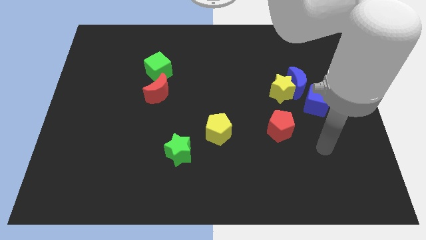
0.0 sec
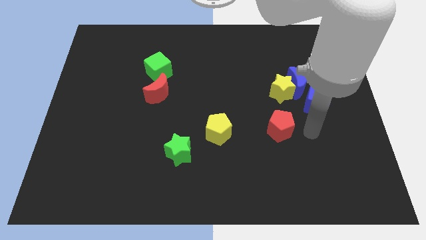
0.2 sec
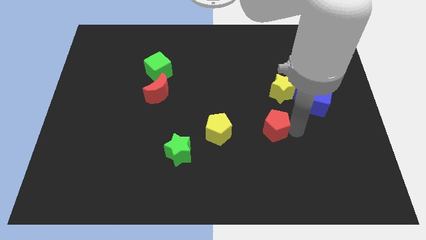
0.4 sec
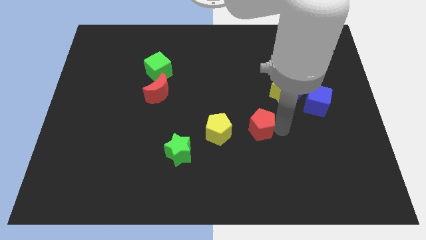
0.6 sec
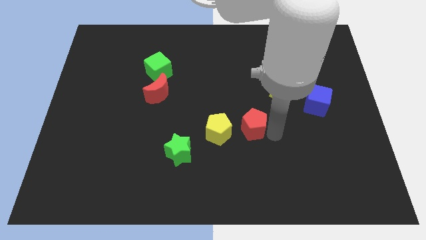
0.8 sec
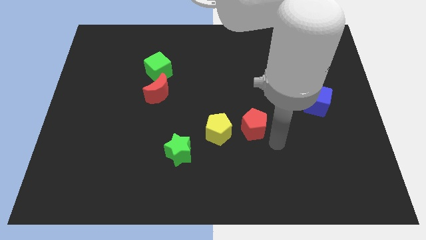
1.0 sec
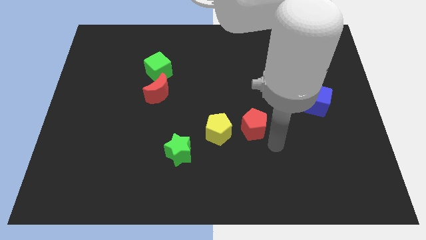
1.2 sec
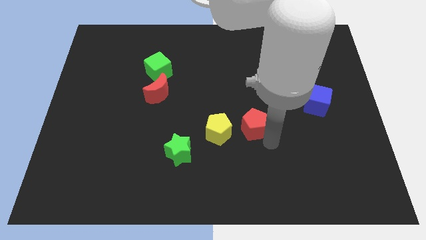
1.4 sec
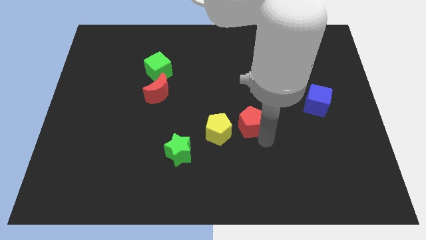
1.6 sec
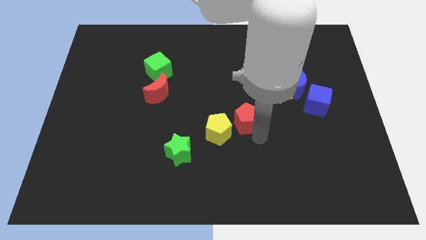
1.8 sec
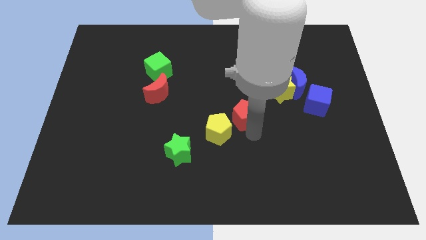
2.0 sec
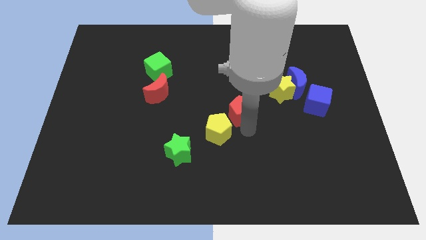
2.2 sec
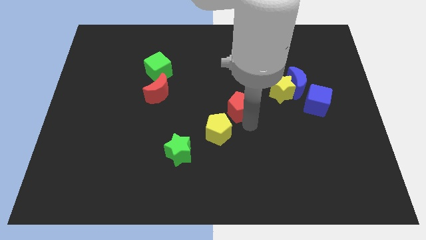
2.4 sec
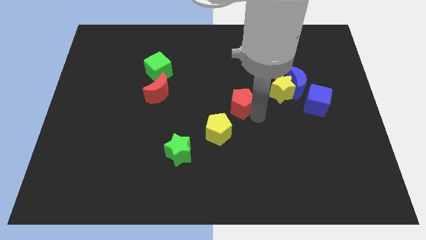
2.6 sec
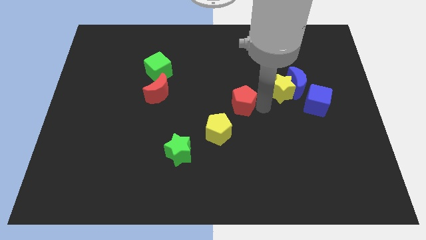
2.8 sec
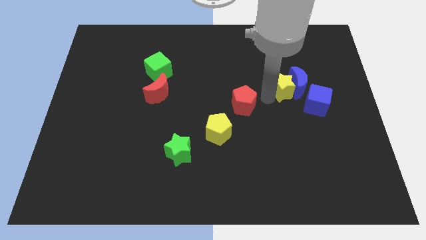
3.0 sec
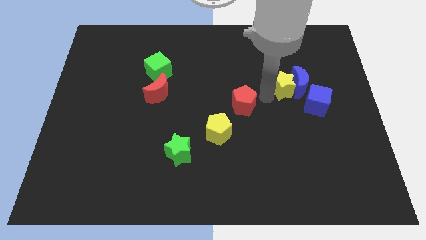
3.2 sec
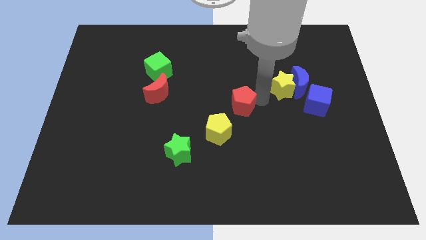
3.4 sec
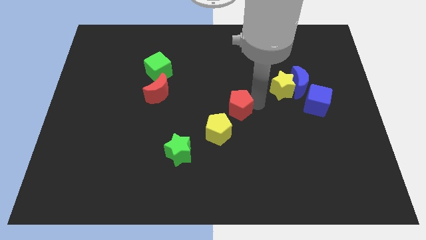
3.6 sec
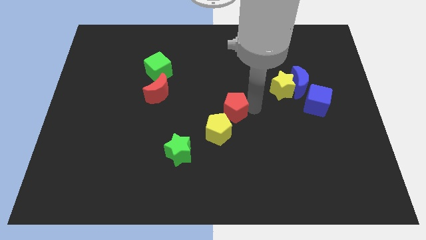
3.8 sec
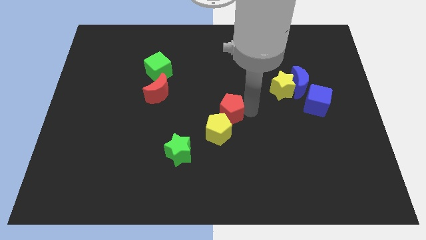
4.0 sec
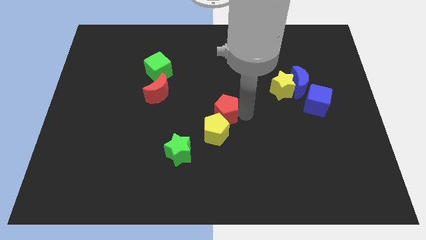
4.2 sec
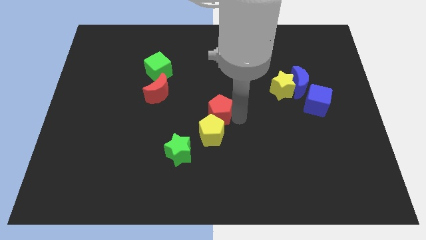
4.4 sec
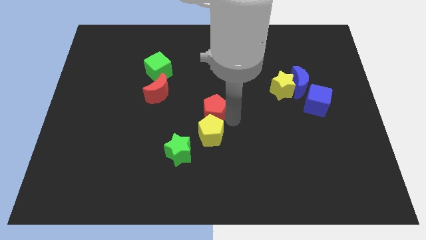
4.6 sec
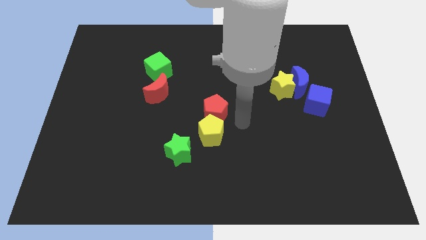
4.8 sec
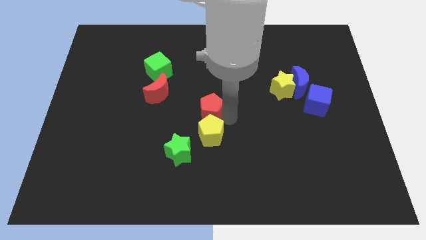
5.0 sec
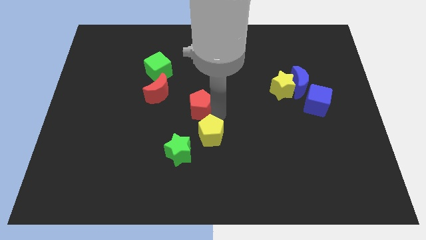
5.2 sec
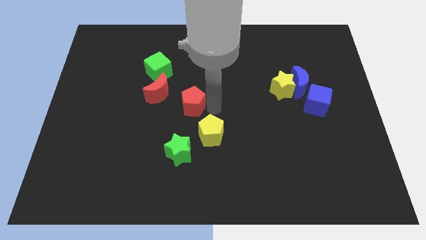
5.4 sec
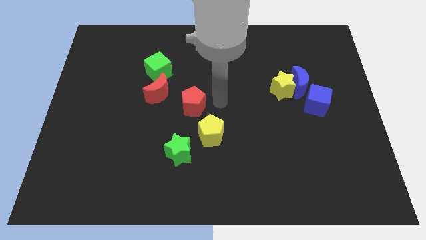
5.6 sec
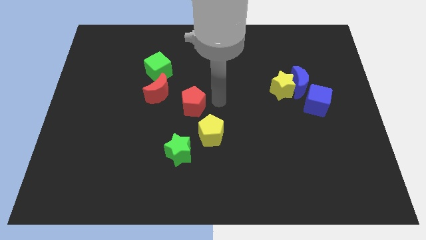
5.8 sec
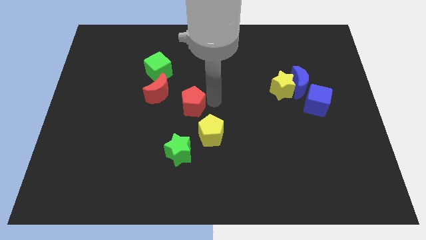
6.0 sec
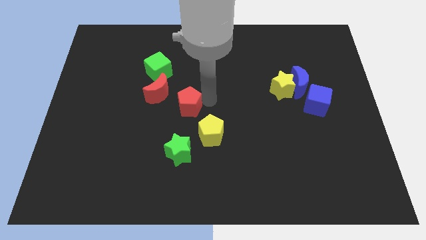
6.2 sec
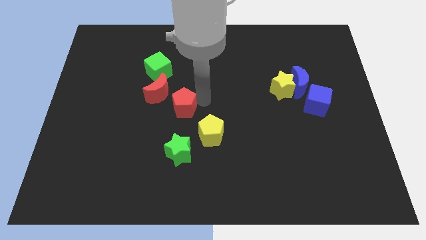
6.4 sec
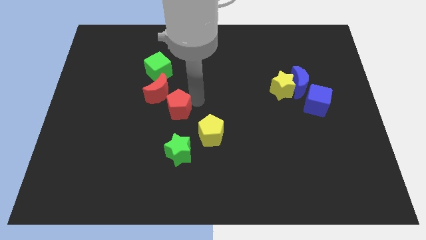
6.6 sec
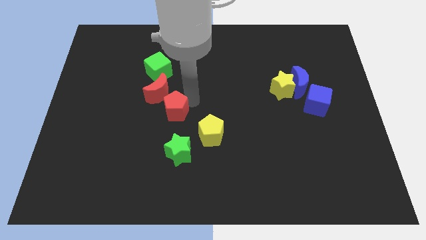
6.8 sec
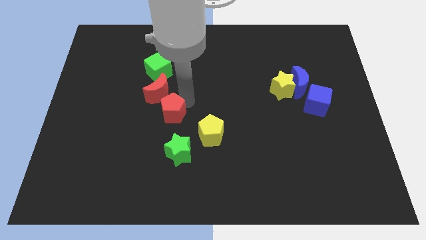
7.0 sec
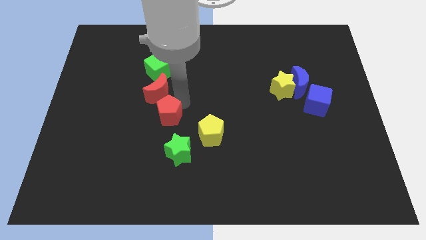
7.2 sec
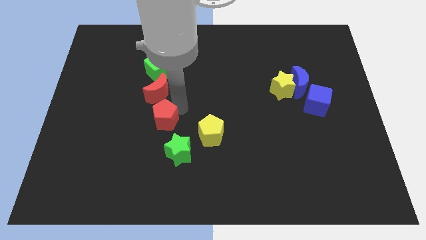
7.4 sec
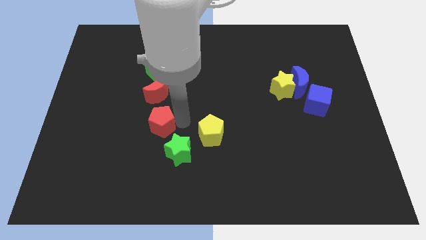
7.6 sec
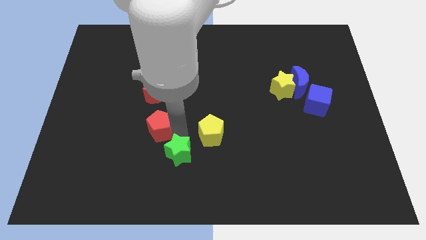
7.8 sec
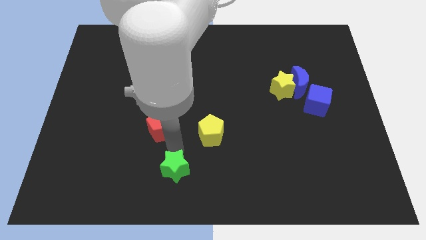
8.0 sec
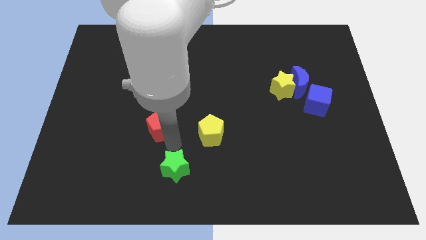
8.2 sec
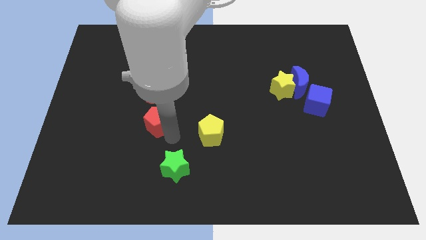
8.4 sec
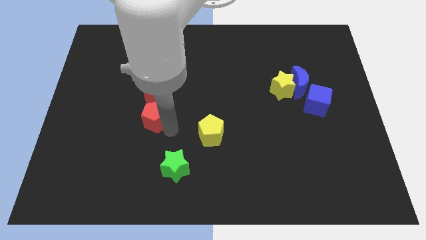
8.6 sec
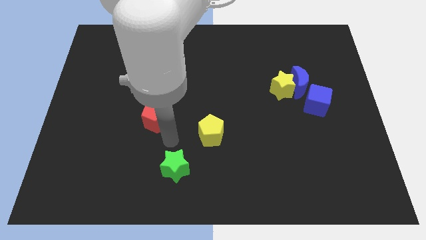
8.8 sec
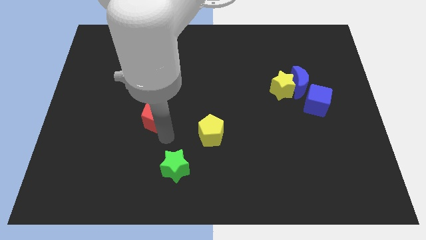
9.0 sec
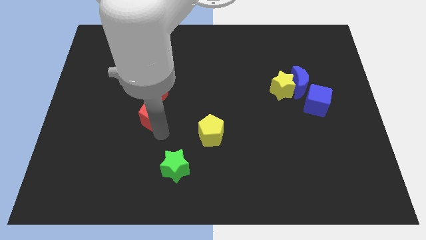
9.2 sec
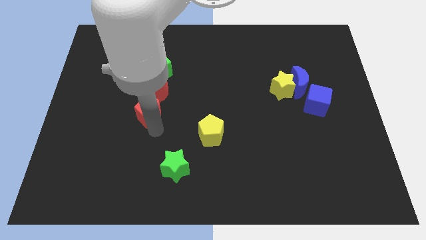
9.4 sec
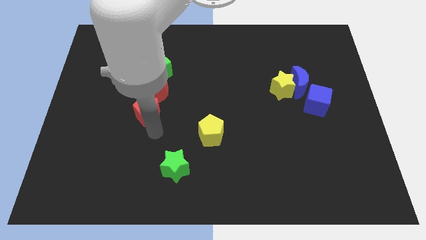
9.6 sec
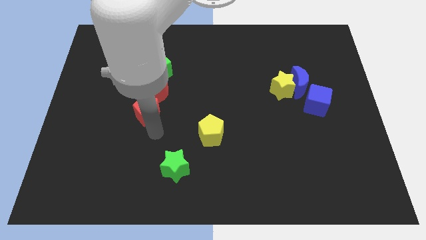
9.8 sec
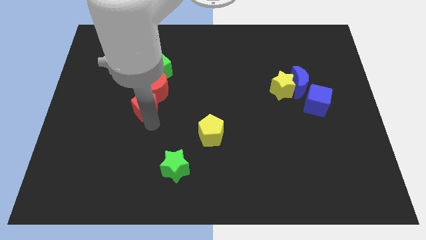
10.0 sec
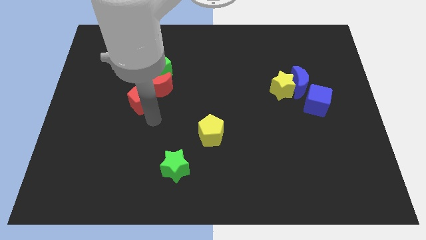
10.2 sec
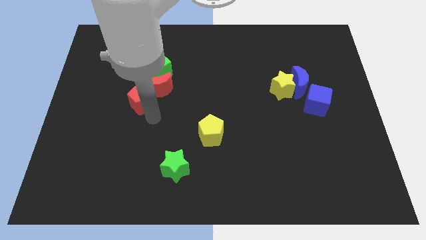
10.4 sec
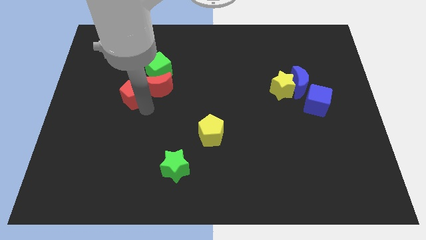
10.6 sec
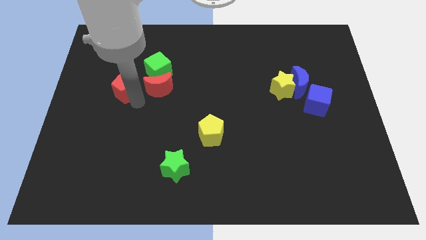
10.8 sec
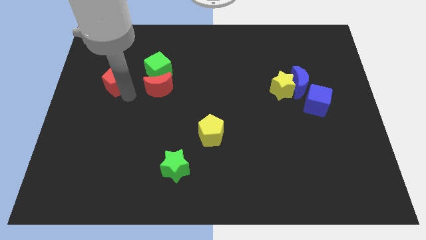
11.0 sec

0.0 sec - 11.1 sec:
slide the red pentagon just left of the green cube

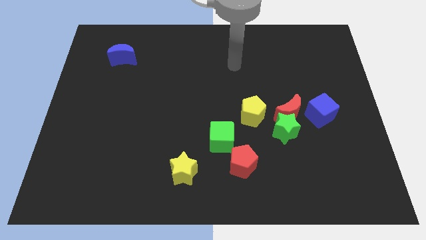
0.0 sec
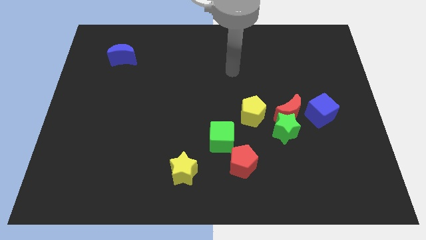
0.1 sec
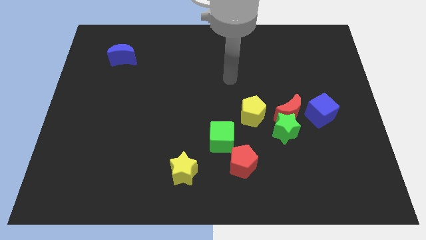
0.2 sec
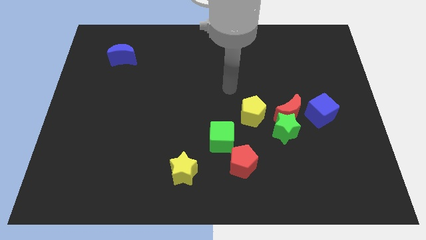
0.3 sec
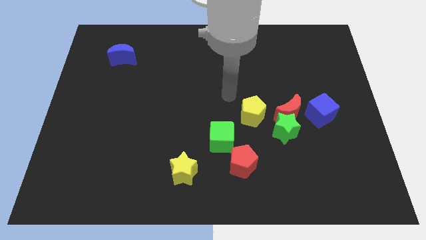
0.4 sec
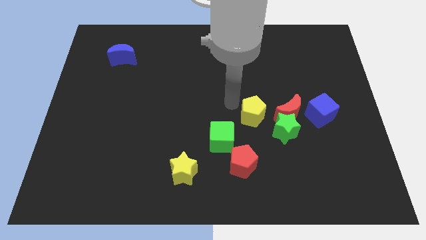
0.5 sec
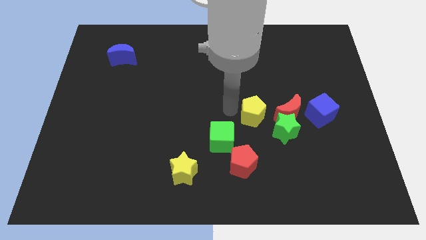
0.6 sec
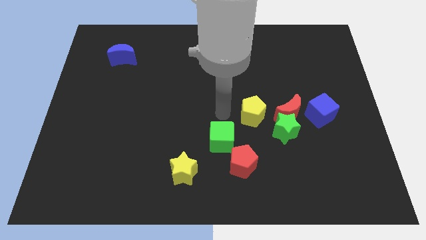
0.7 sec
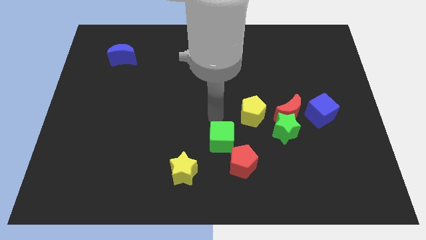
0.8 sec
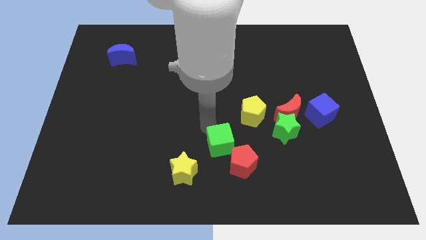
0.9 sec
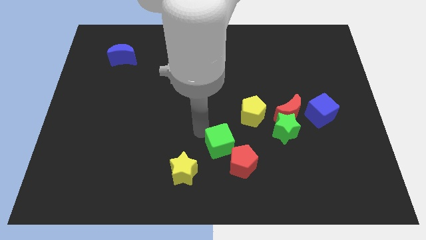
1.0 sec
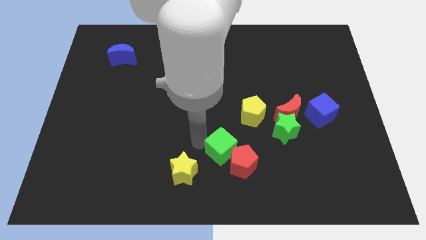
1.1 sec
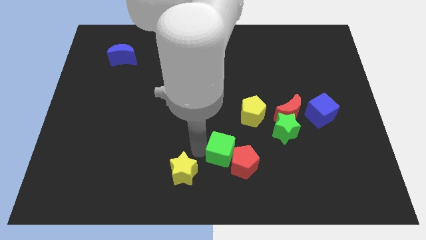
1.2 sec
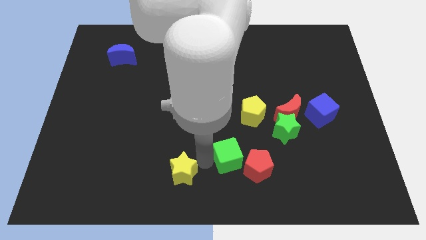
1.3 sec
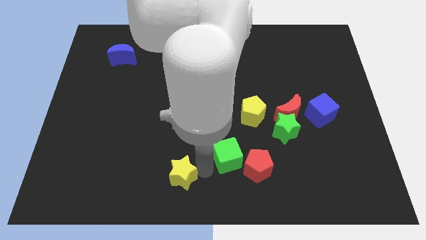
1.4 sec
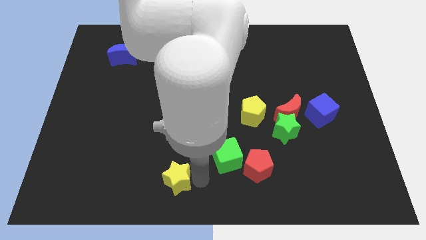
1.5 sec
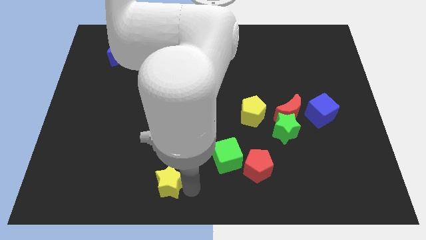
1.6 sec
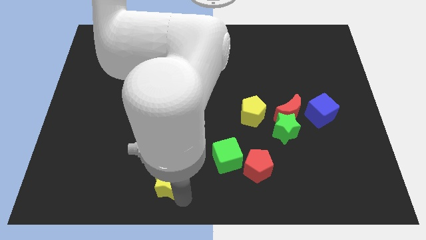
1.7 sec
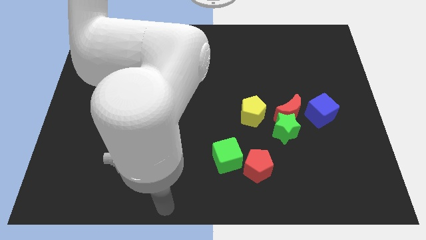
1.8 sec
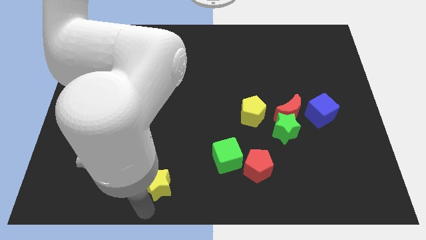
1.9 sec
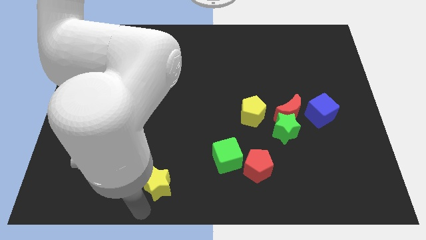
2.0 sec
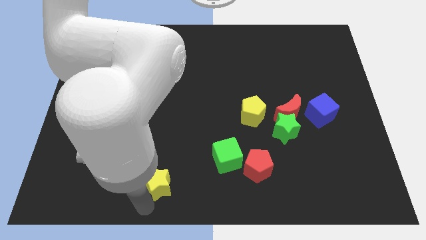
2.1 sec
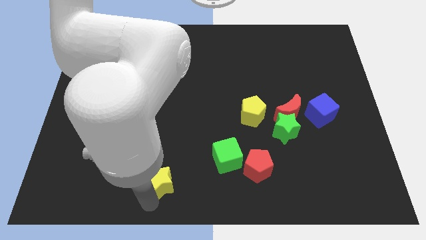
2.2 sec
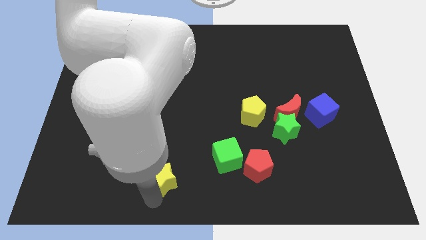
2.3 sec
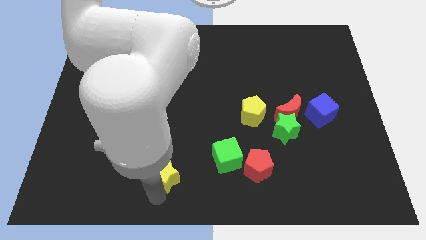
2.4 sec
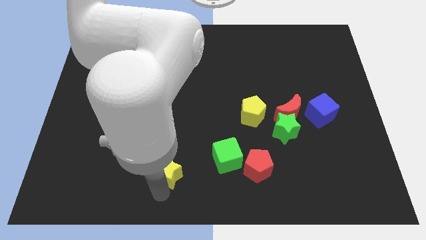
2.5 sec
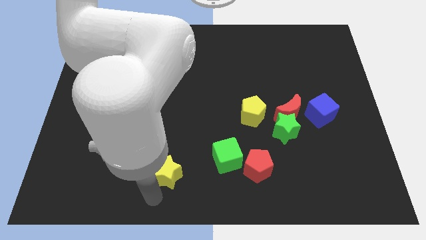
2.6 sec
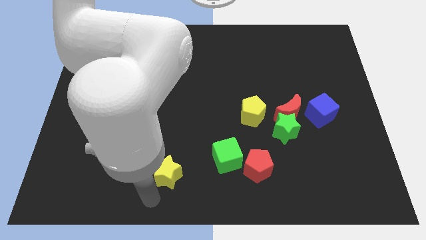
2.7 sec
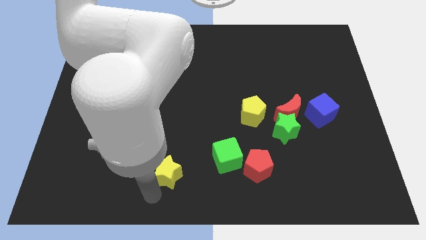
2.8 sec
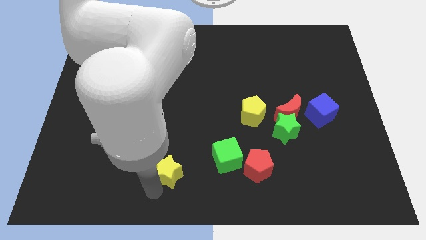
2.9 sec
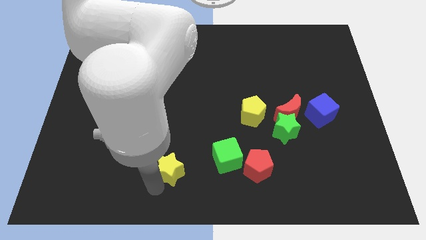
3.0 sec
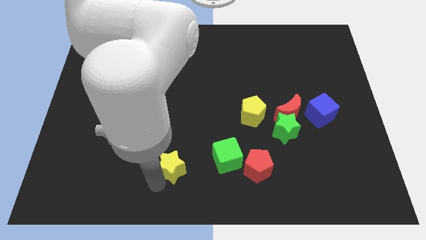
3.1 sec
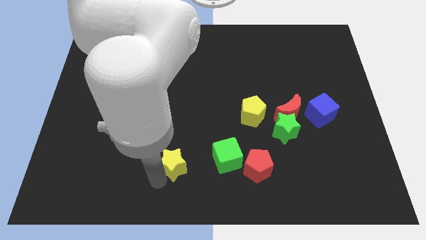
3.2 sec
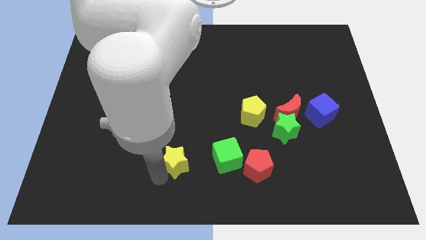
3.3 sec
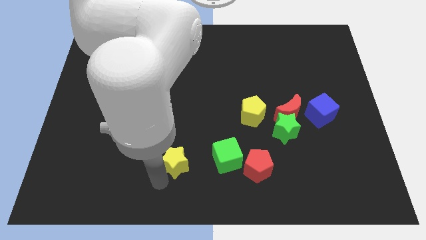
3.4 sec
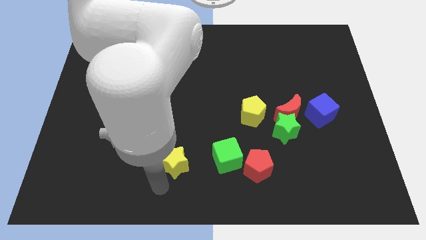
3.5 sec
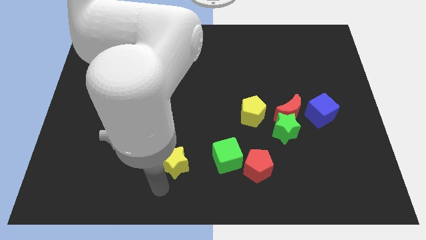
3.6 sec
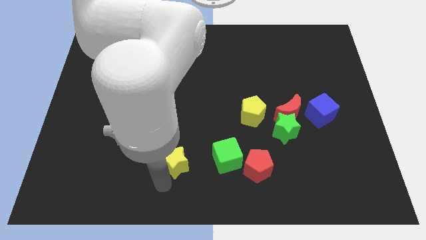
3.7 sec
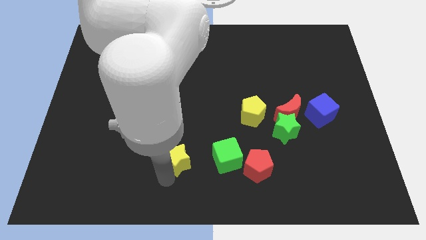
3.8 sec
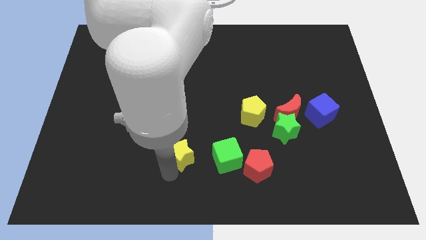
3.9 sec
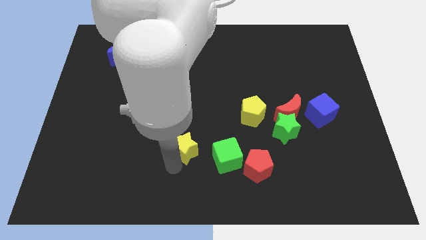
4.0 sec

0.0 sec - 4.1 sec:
push the yellow star diagonally up and to the left of the green cube
